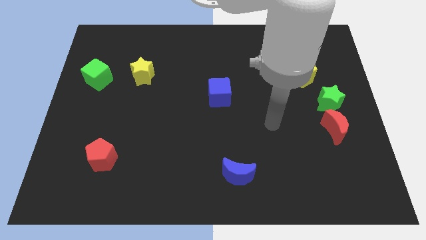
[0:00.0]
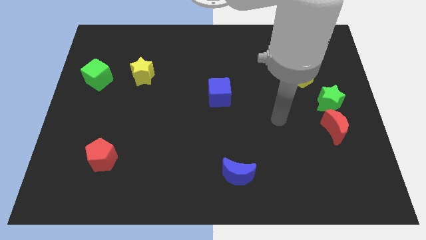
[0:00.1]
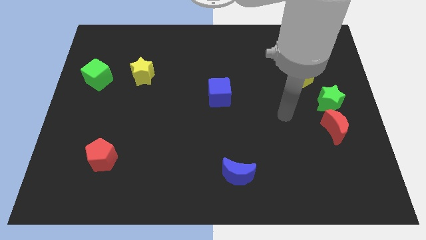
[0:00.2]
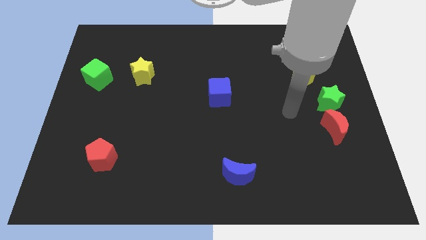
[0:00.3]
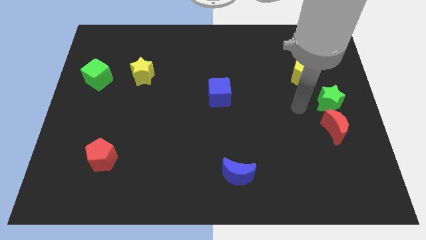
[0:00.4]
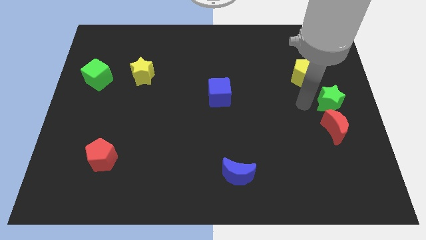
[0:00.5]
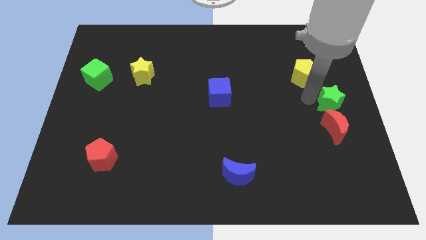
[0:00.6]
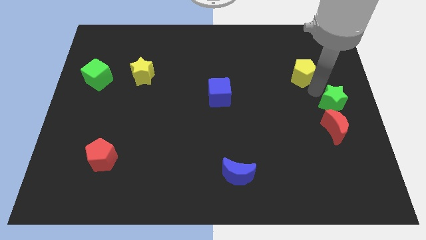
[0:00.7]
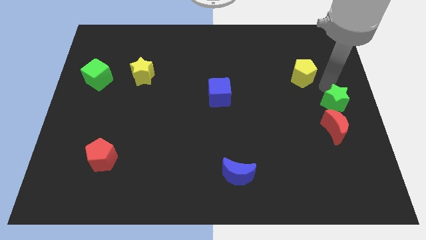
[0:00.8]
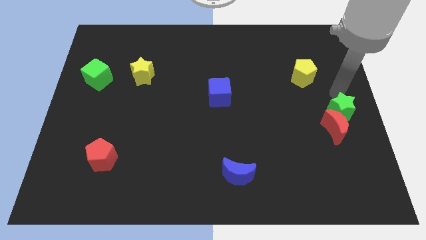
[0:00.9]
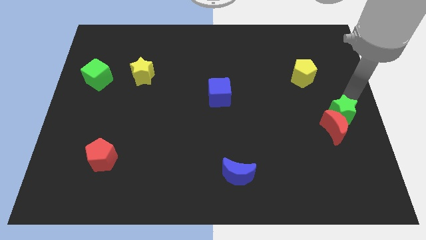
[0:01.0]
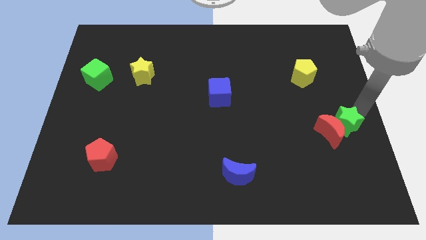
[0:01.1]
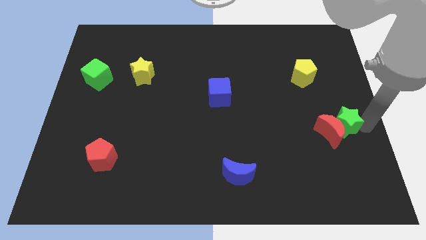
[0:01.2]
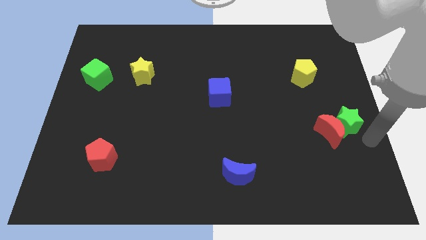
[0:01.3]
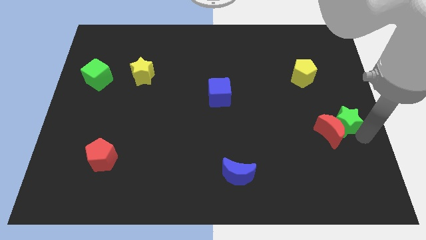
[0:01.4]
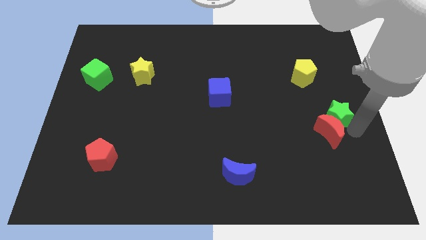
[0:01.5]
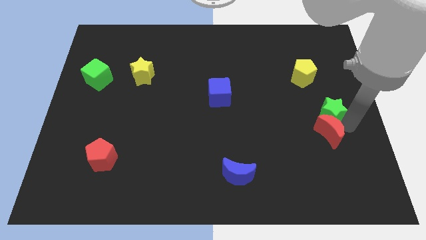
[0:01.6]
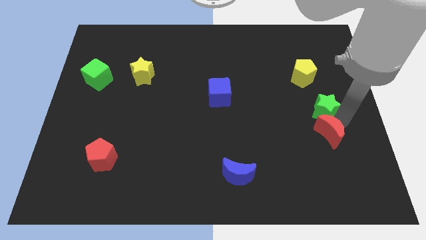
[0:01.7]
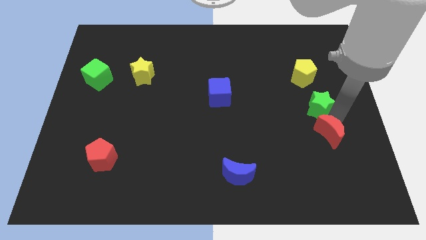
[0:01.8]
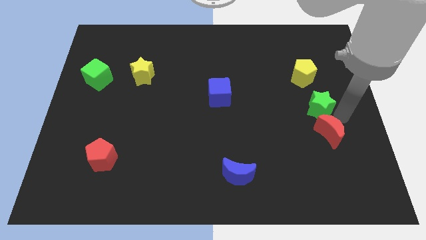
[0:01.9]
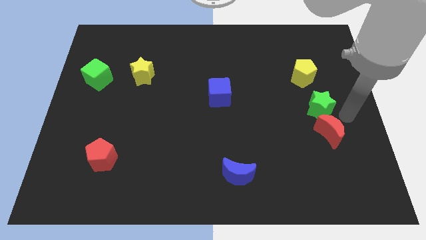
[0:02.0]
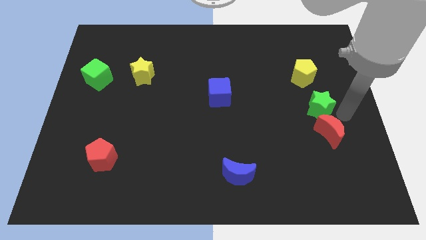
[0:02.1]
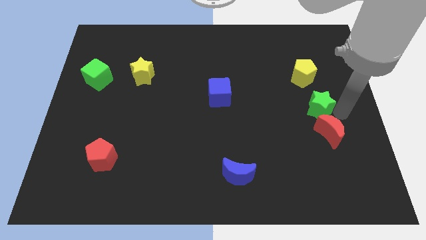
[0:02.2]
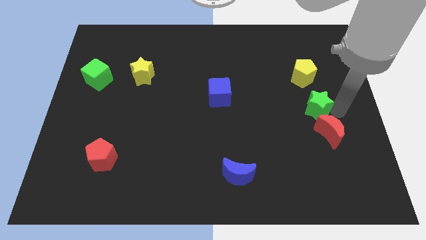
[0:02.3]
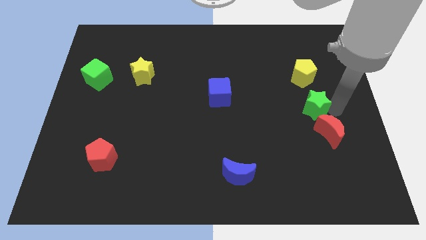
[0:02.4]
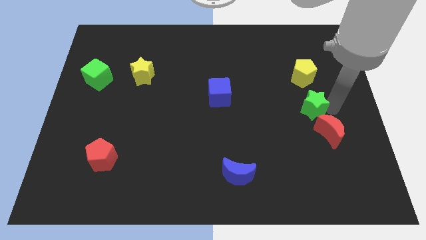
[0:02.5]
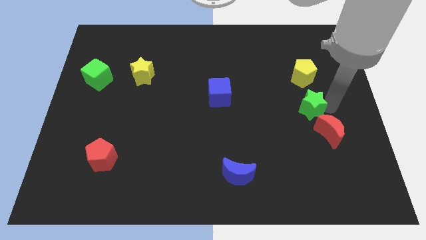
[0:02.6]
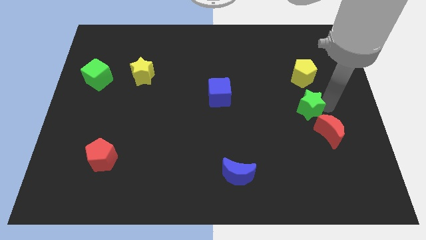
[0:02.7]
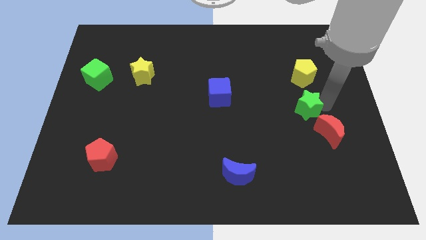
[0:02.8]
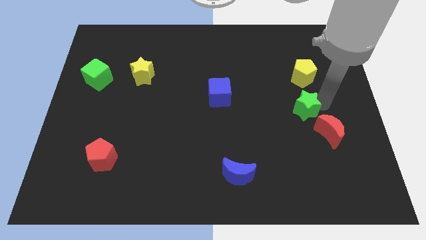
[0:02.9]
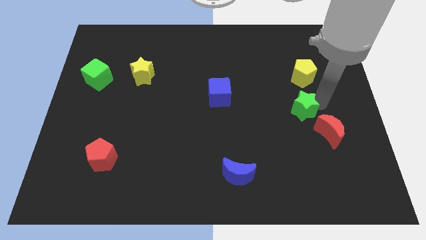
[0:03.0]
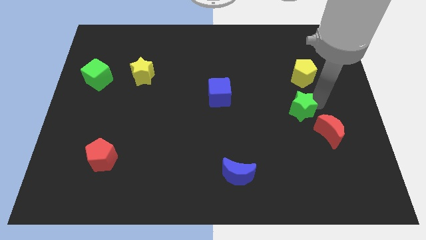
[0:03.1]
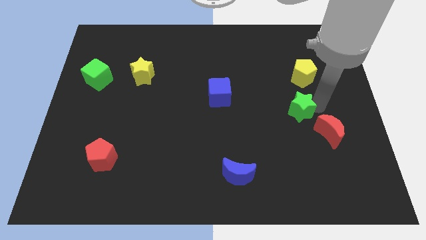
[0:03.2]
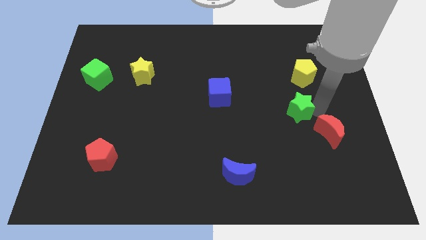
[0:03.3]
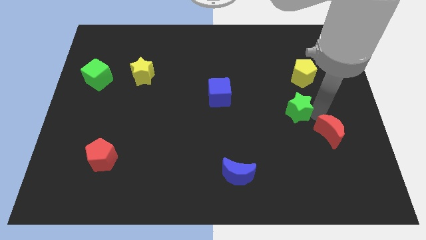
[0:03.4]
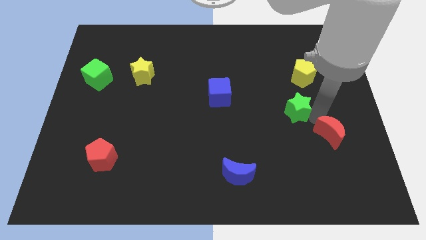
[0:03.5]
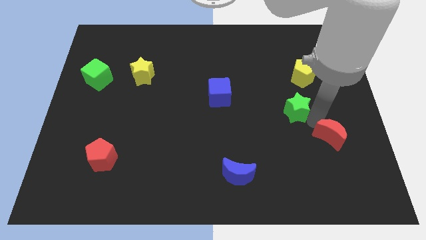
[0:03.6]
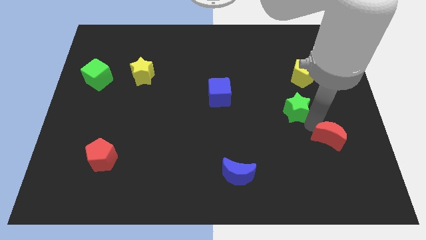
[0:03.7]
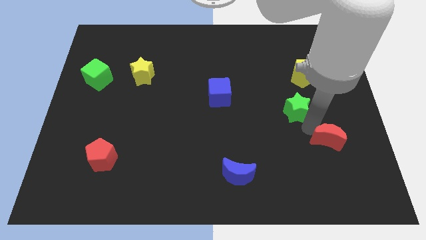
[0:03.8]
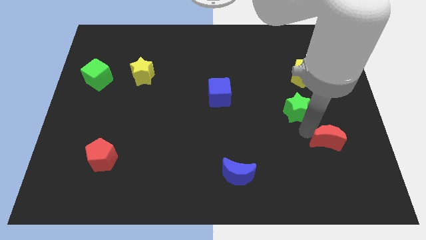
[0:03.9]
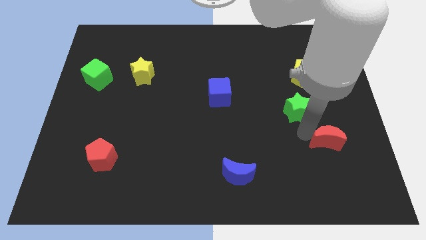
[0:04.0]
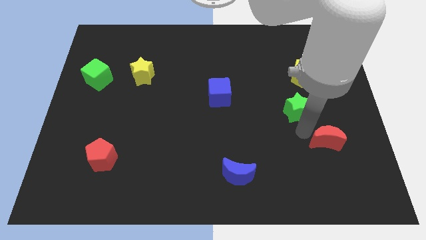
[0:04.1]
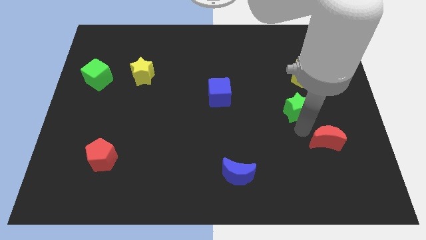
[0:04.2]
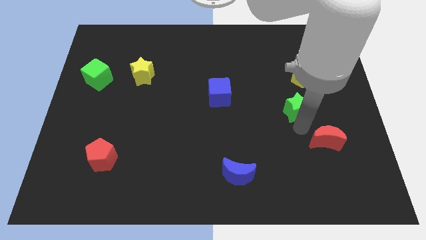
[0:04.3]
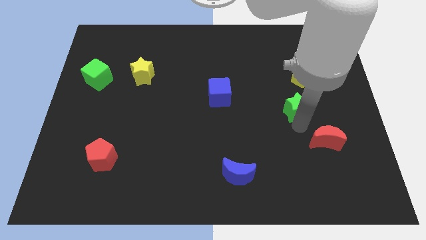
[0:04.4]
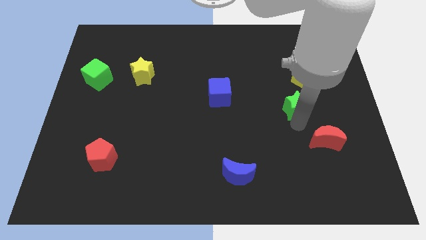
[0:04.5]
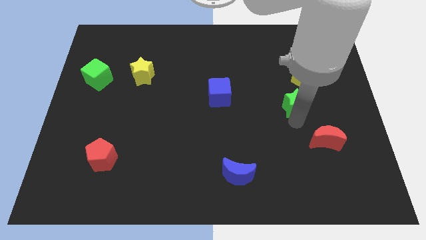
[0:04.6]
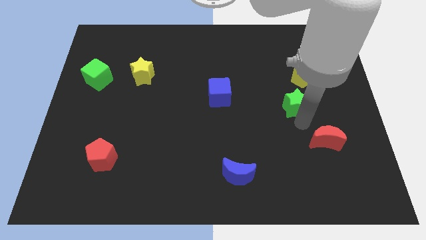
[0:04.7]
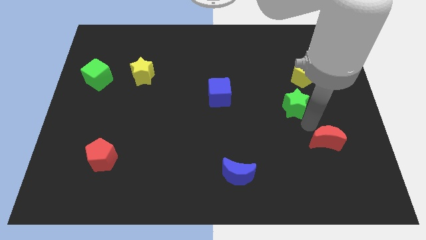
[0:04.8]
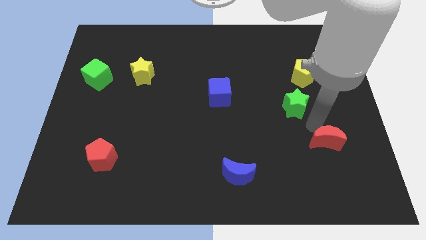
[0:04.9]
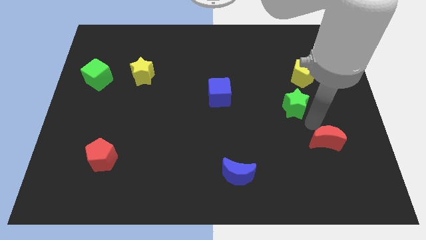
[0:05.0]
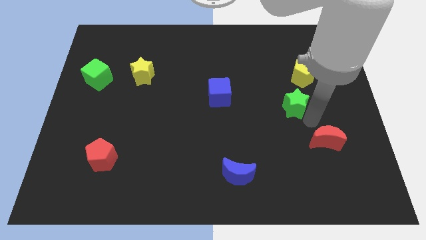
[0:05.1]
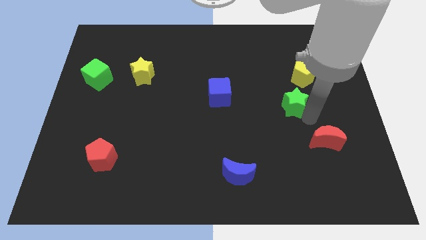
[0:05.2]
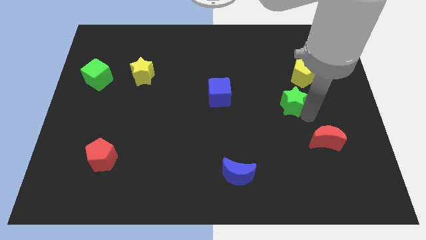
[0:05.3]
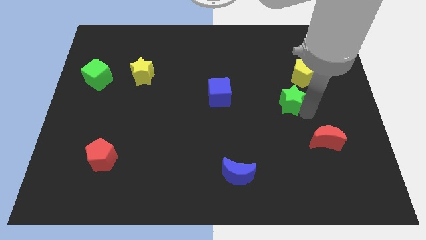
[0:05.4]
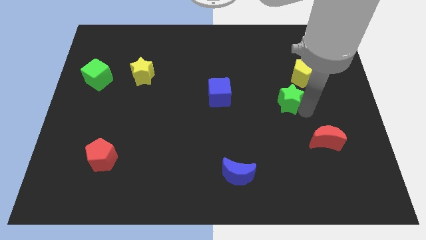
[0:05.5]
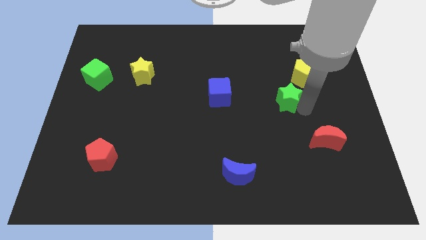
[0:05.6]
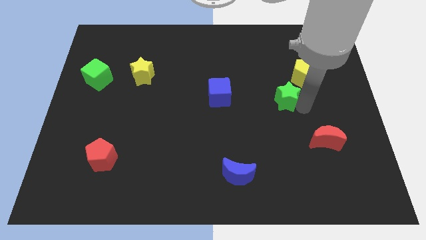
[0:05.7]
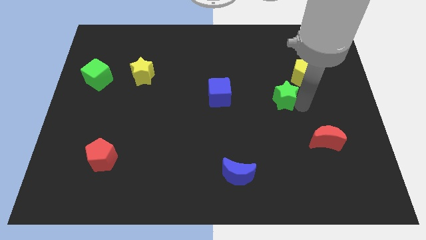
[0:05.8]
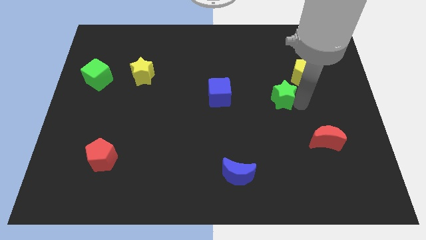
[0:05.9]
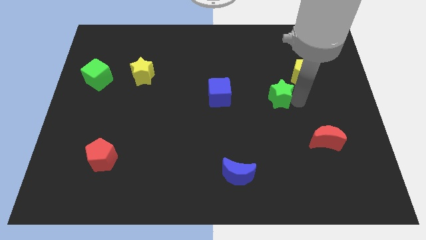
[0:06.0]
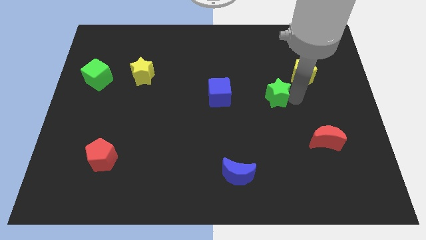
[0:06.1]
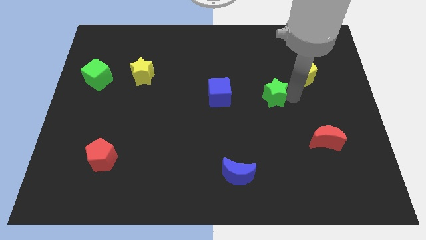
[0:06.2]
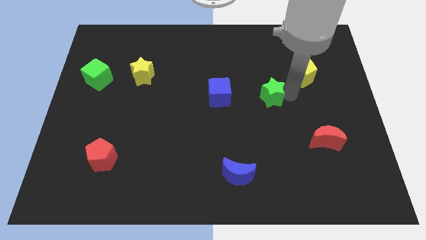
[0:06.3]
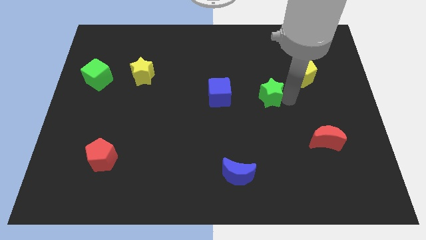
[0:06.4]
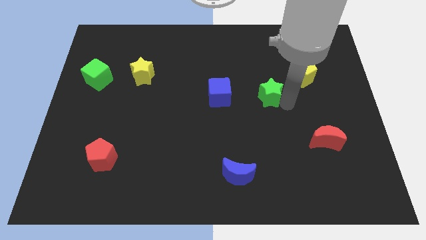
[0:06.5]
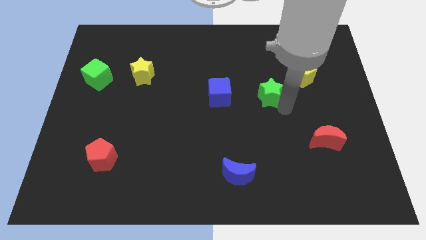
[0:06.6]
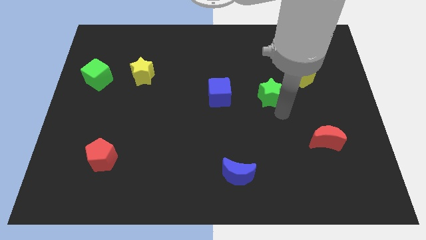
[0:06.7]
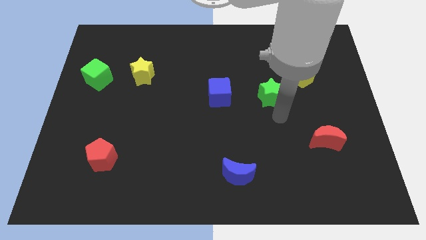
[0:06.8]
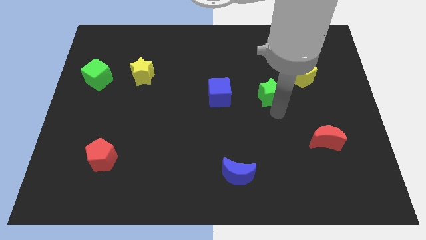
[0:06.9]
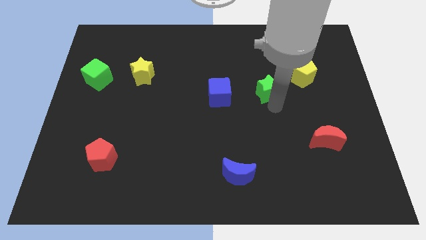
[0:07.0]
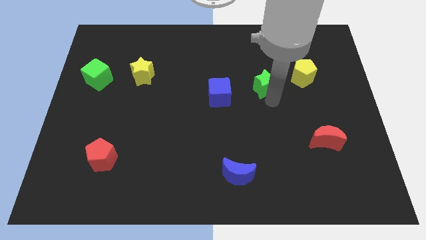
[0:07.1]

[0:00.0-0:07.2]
push the green star just left of the yellow pentagon

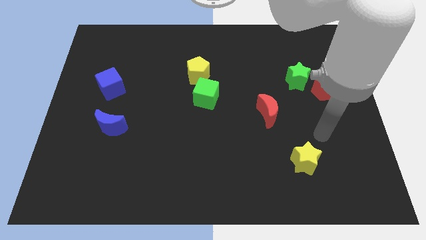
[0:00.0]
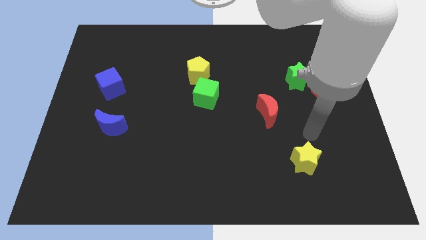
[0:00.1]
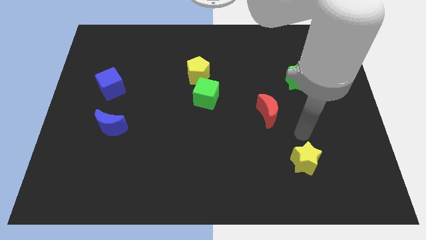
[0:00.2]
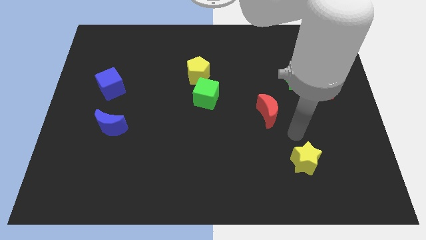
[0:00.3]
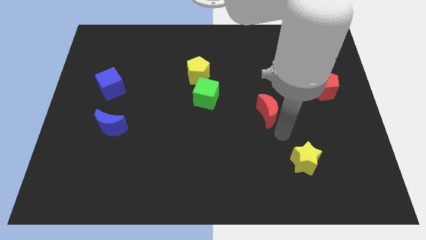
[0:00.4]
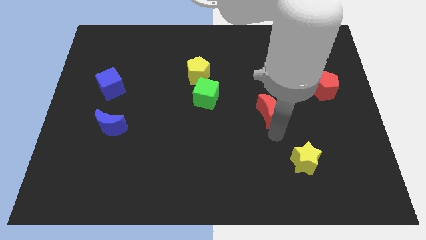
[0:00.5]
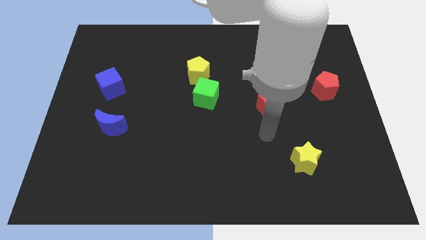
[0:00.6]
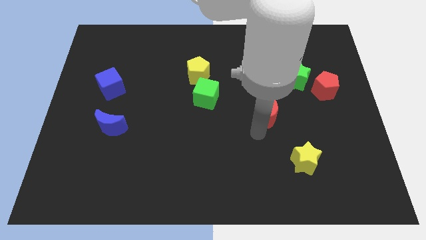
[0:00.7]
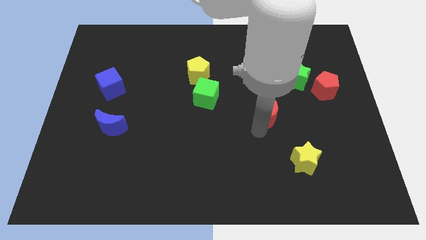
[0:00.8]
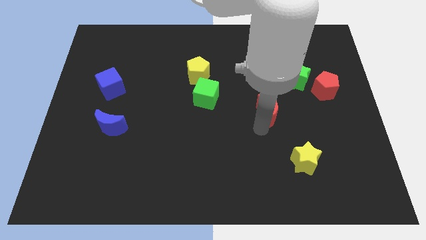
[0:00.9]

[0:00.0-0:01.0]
push the red moon to the bottom left of the green star
